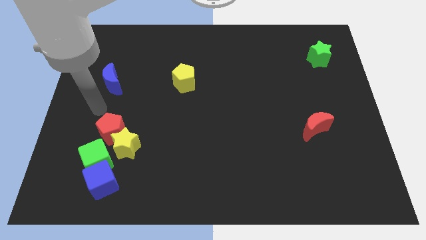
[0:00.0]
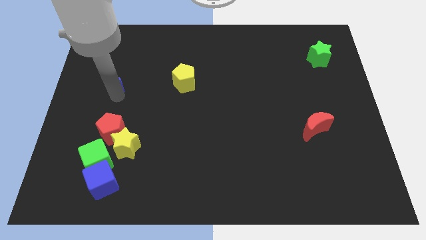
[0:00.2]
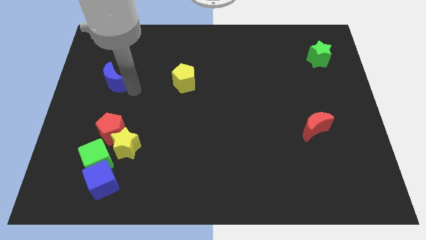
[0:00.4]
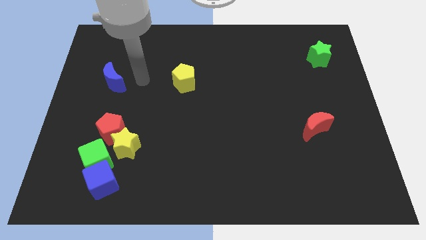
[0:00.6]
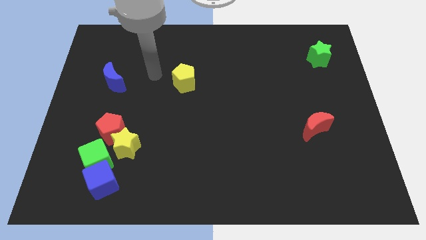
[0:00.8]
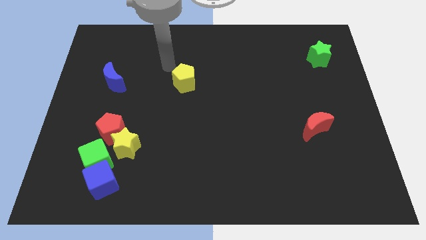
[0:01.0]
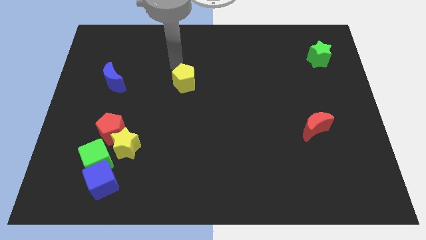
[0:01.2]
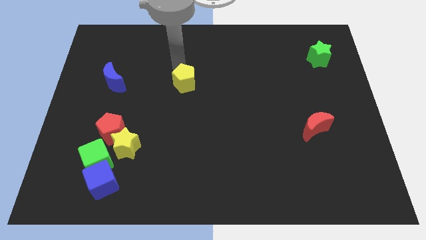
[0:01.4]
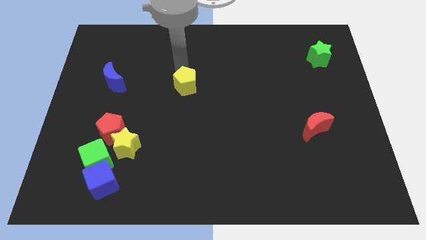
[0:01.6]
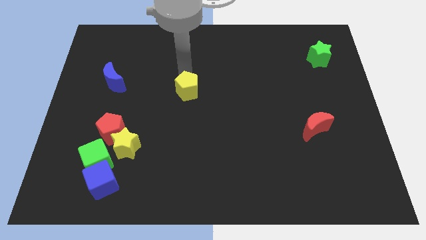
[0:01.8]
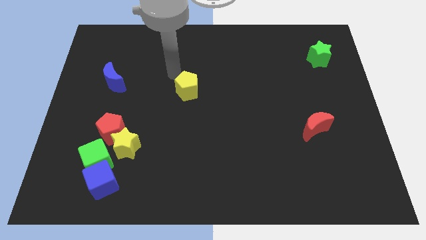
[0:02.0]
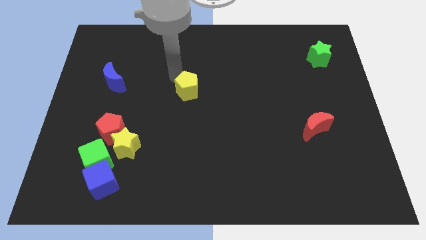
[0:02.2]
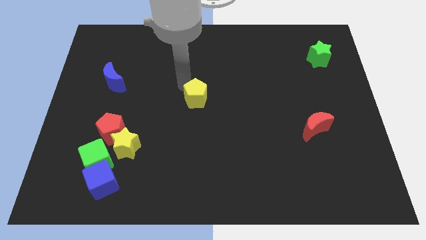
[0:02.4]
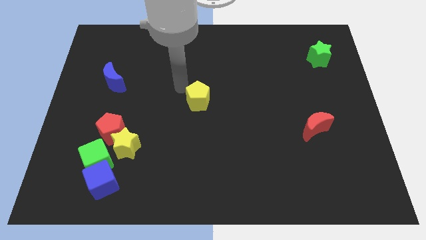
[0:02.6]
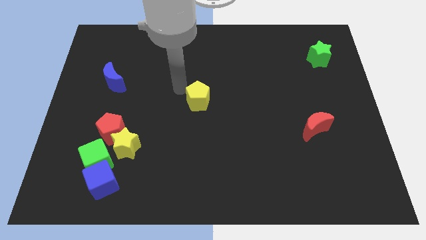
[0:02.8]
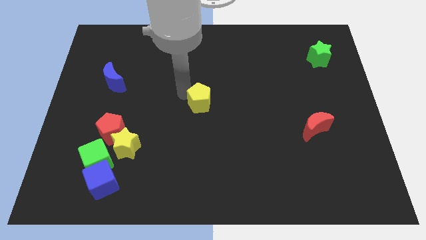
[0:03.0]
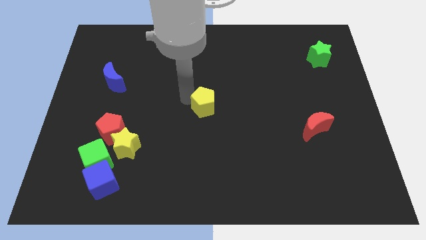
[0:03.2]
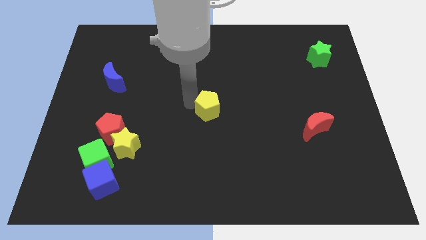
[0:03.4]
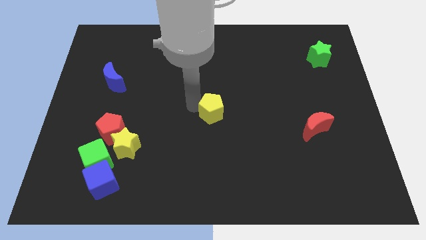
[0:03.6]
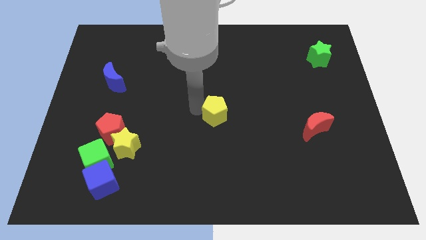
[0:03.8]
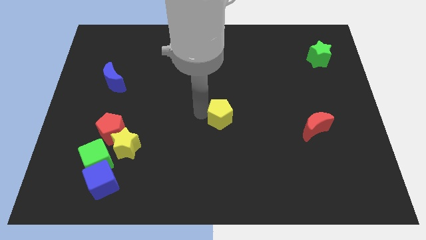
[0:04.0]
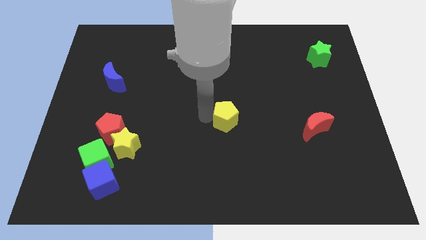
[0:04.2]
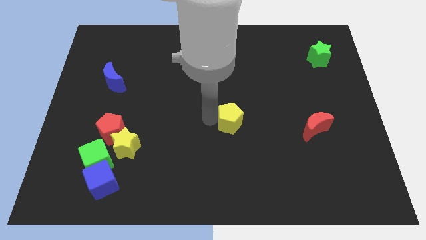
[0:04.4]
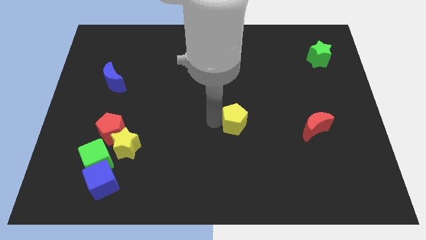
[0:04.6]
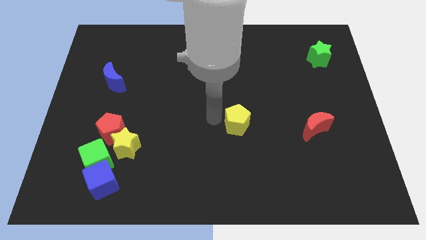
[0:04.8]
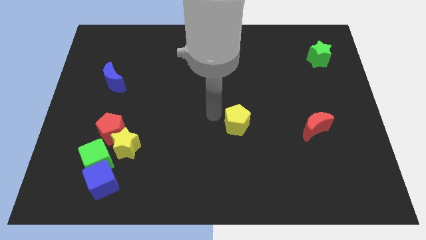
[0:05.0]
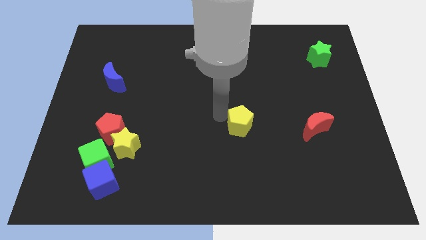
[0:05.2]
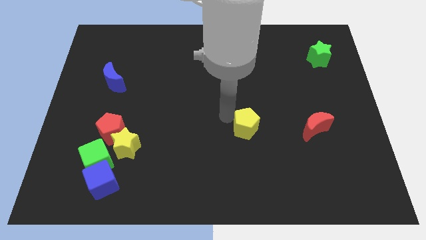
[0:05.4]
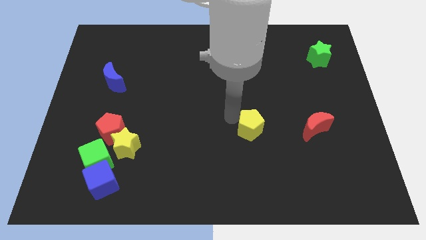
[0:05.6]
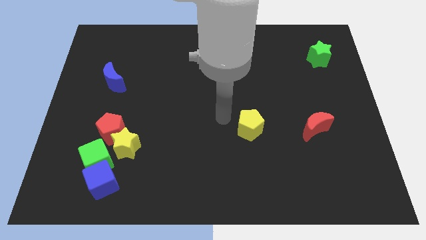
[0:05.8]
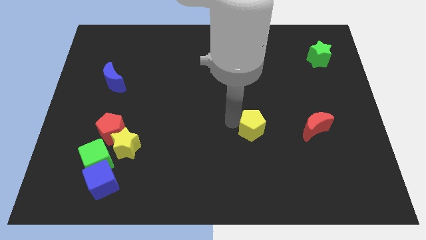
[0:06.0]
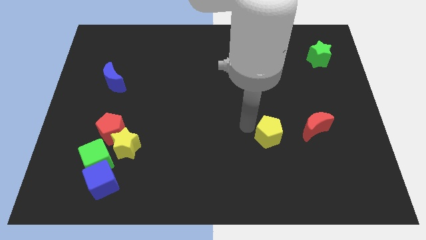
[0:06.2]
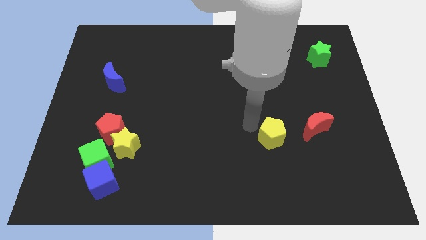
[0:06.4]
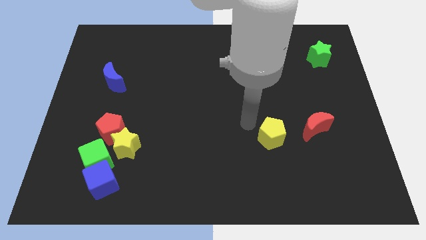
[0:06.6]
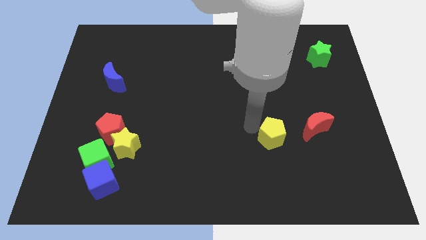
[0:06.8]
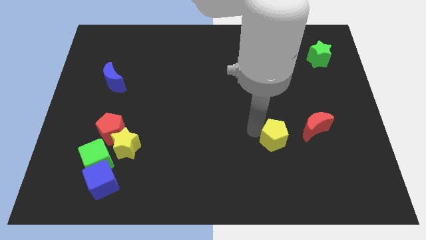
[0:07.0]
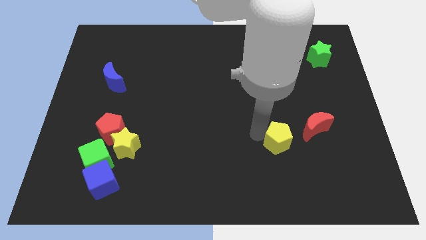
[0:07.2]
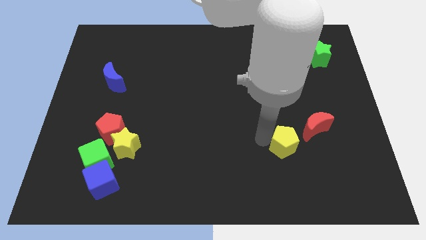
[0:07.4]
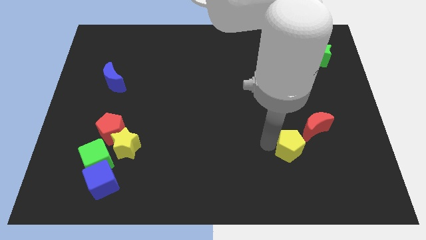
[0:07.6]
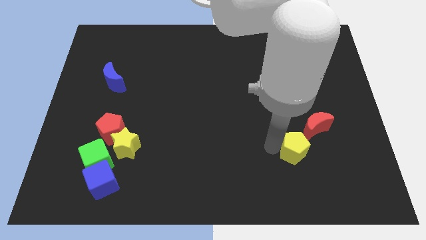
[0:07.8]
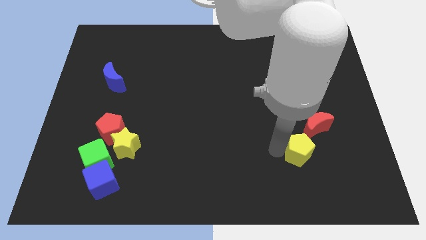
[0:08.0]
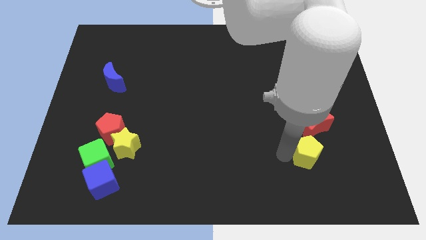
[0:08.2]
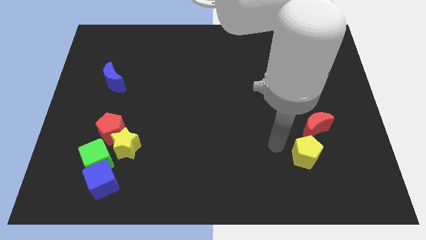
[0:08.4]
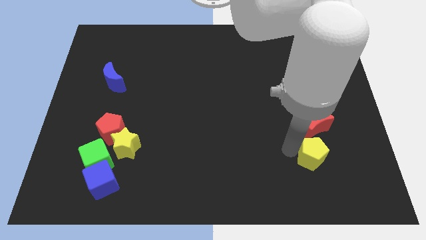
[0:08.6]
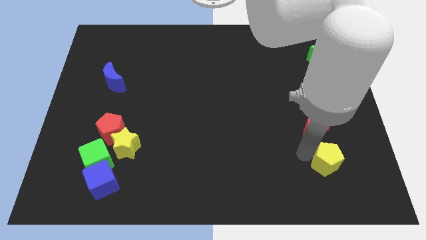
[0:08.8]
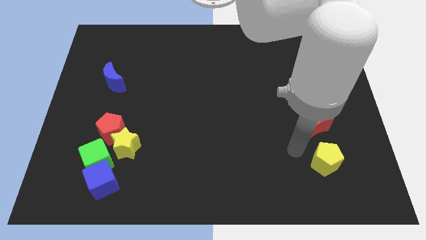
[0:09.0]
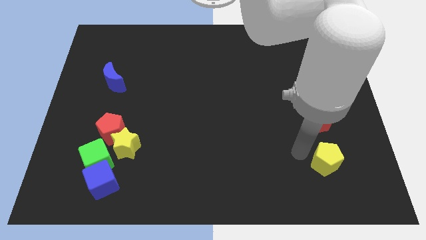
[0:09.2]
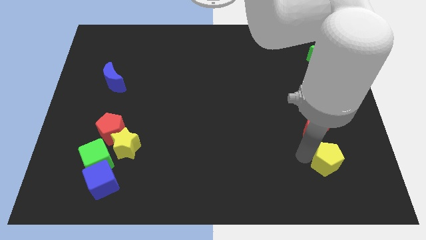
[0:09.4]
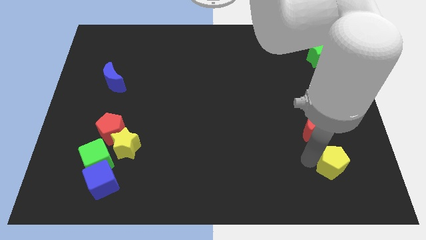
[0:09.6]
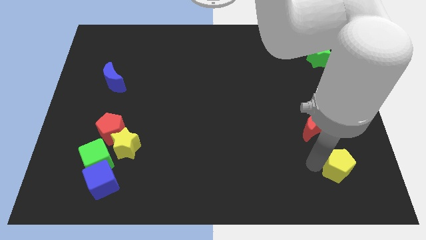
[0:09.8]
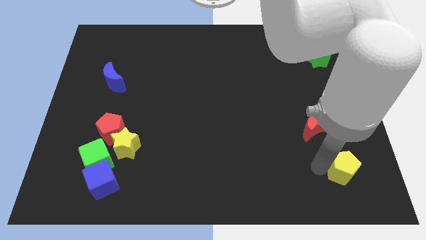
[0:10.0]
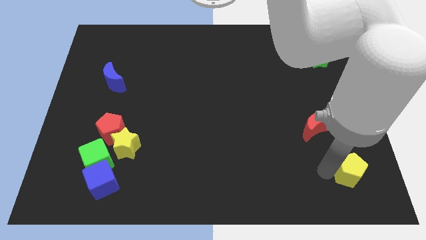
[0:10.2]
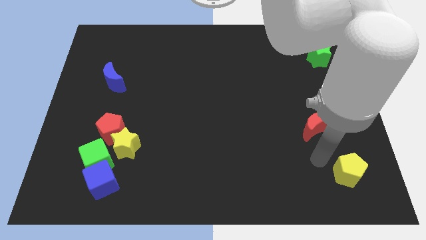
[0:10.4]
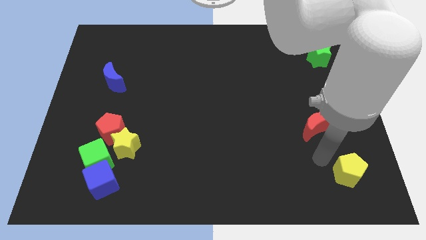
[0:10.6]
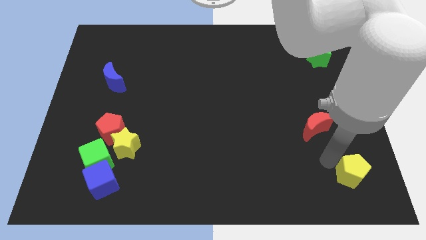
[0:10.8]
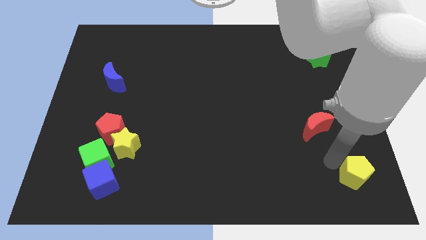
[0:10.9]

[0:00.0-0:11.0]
put the yellow pentagon to the lower right corner

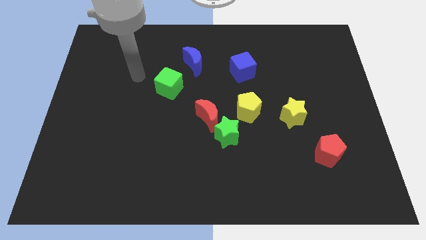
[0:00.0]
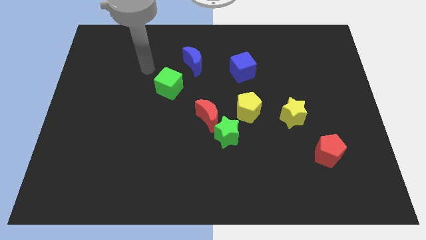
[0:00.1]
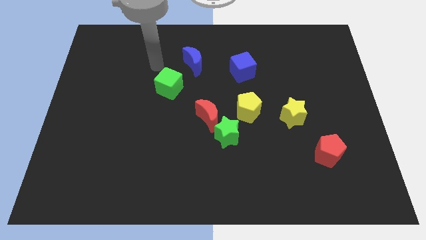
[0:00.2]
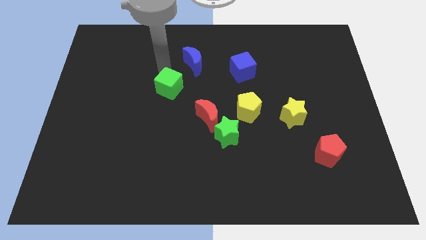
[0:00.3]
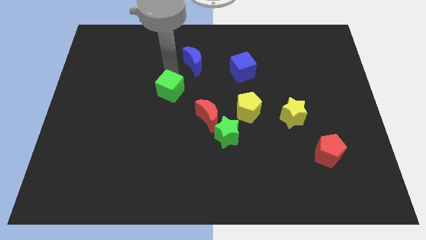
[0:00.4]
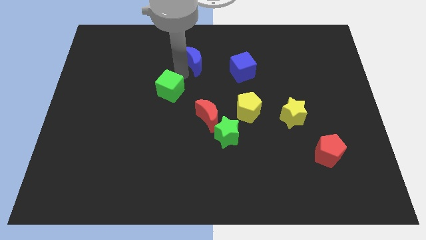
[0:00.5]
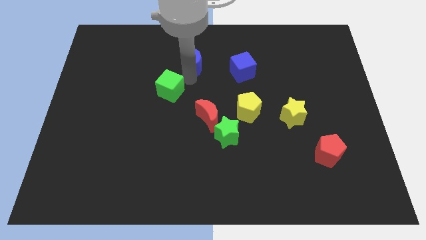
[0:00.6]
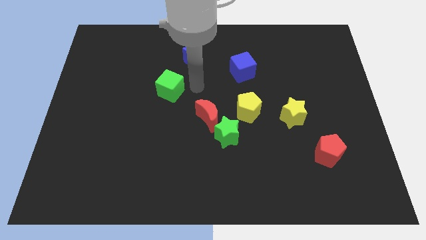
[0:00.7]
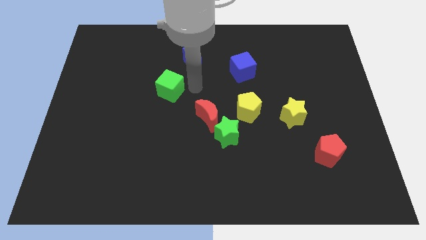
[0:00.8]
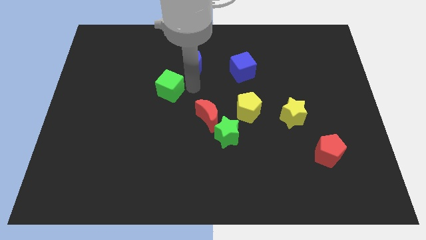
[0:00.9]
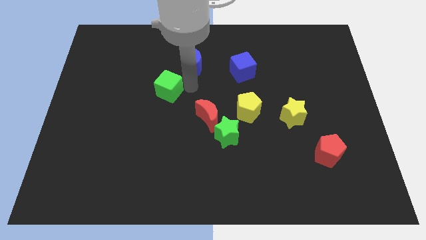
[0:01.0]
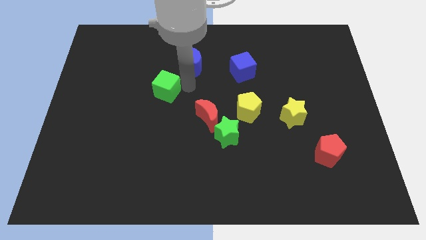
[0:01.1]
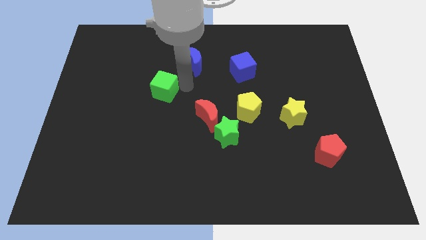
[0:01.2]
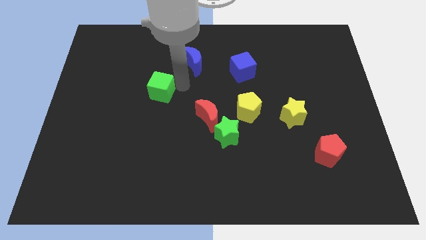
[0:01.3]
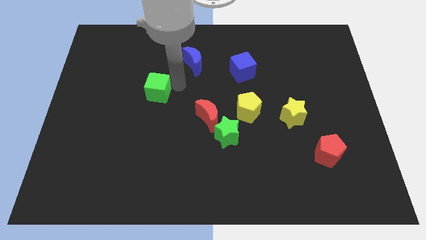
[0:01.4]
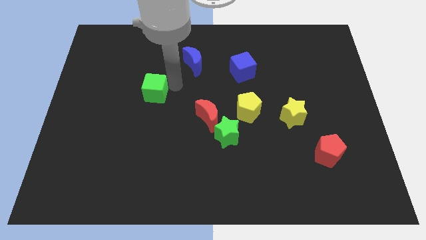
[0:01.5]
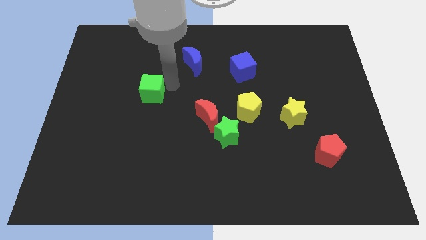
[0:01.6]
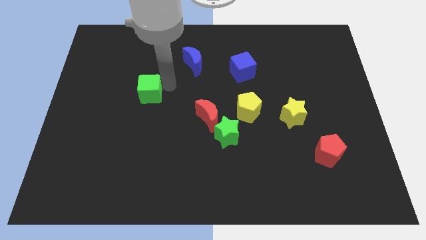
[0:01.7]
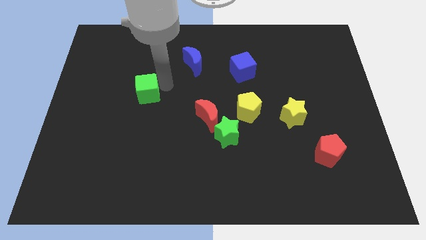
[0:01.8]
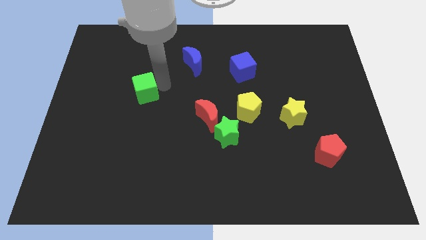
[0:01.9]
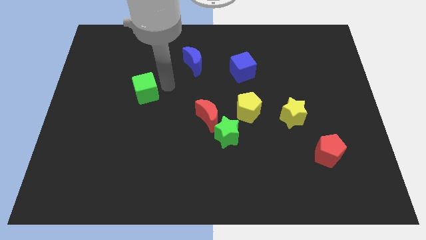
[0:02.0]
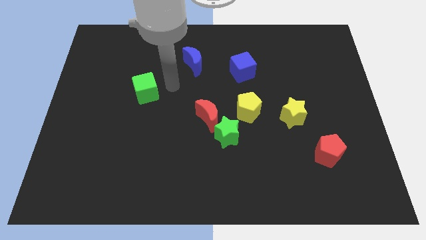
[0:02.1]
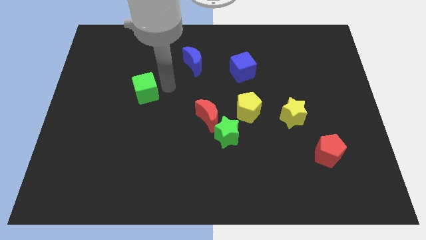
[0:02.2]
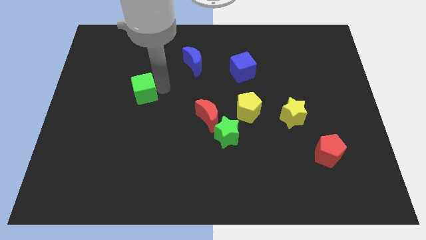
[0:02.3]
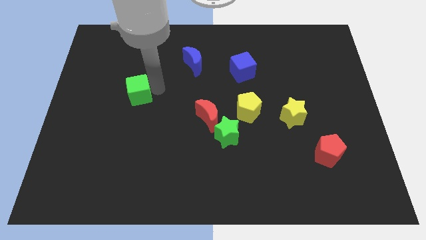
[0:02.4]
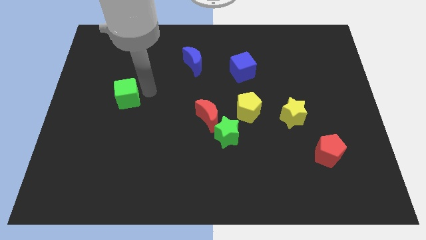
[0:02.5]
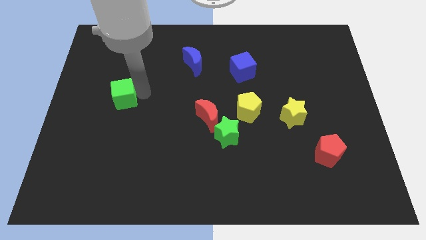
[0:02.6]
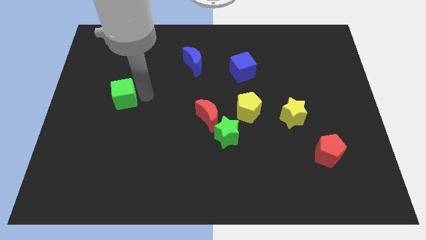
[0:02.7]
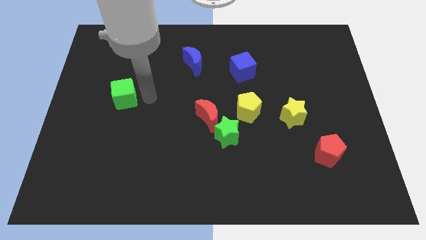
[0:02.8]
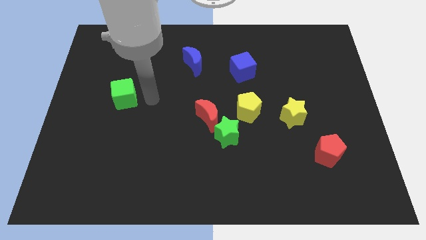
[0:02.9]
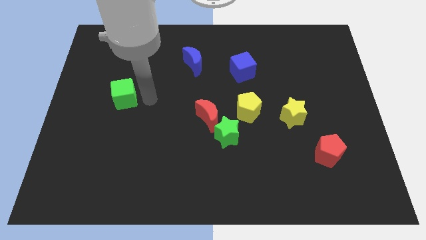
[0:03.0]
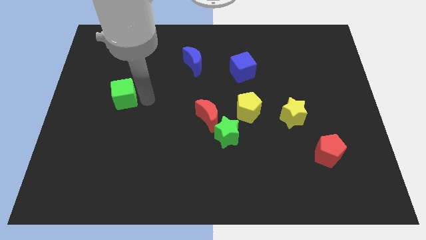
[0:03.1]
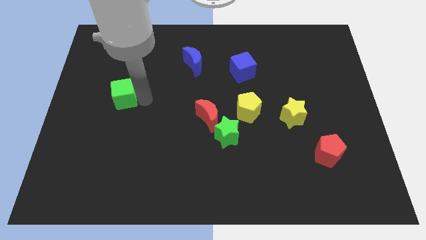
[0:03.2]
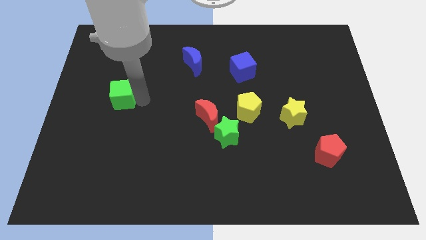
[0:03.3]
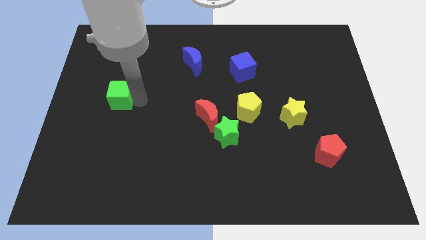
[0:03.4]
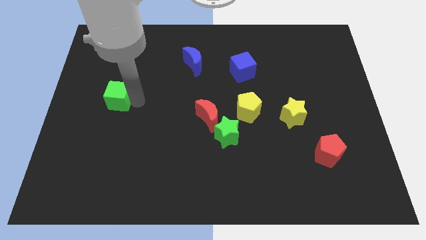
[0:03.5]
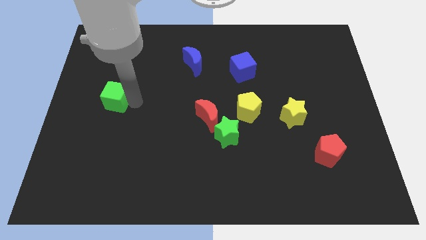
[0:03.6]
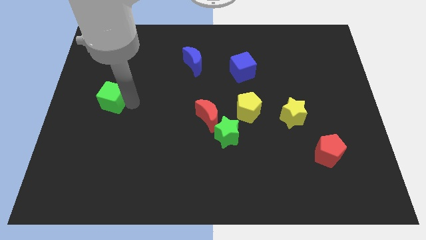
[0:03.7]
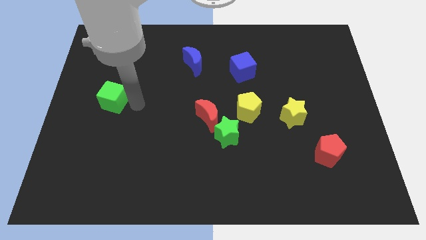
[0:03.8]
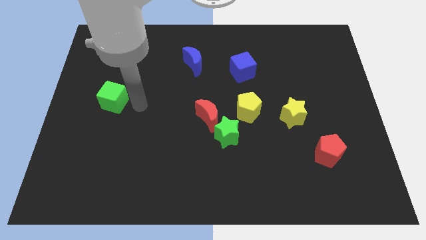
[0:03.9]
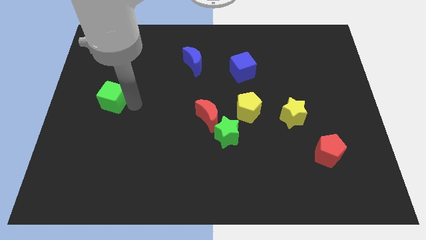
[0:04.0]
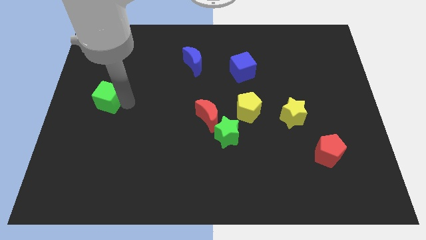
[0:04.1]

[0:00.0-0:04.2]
slide the green cube to the left side of the board
